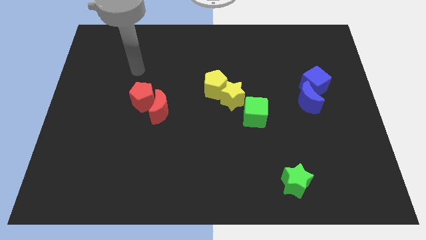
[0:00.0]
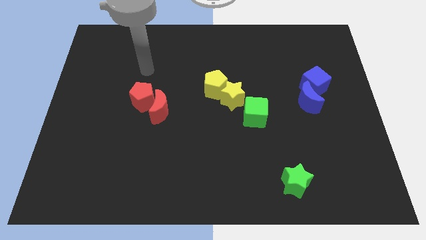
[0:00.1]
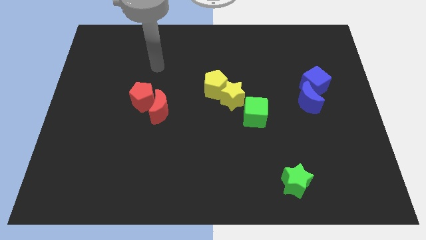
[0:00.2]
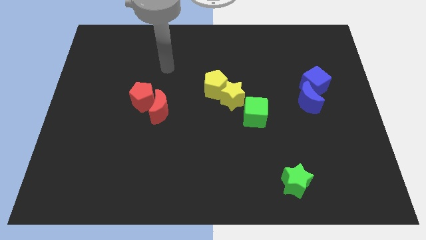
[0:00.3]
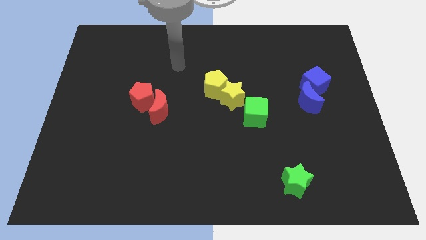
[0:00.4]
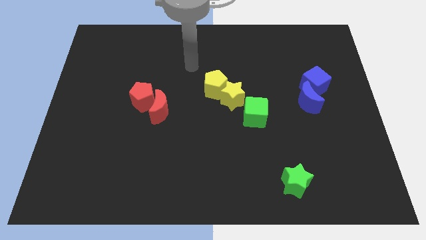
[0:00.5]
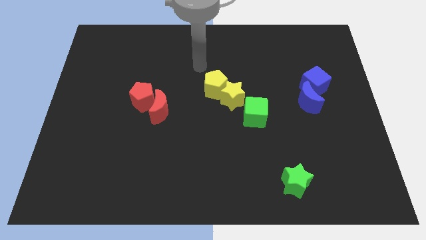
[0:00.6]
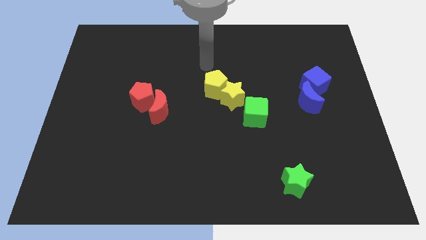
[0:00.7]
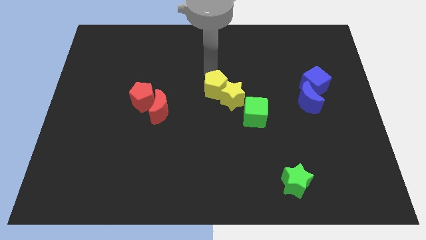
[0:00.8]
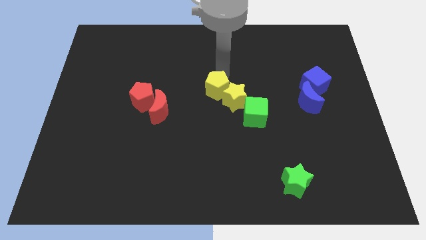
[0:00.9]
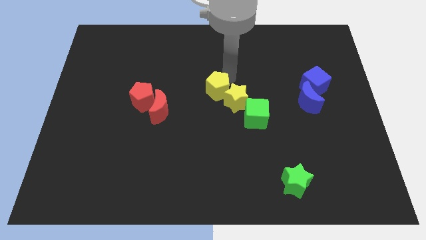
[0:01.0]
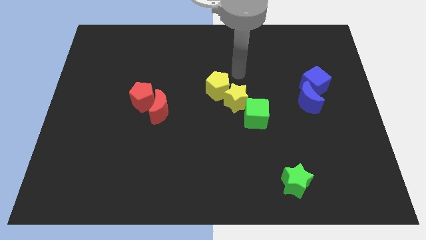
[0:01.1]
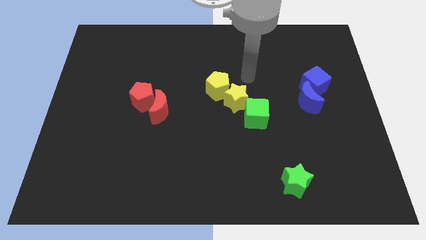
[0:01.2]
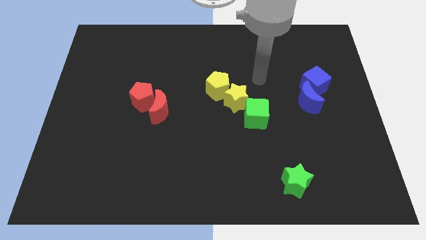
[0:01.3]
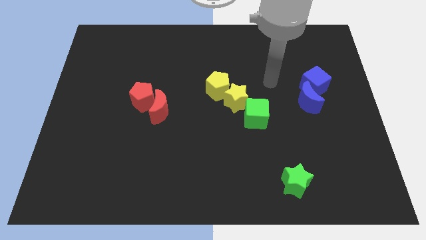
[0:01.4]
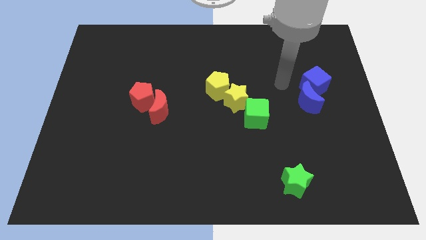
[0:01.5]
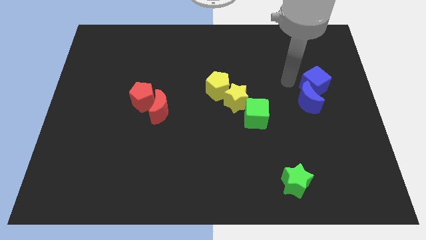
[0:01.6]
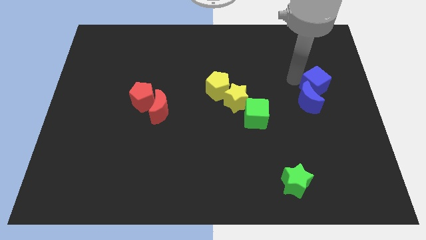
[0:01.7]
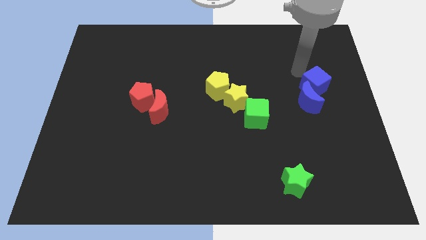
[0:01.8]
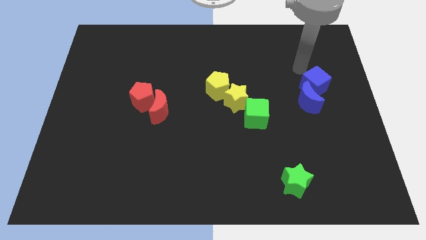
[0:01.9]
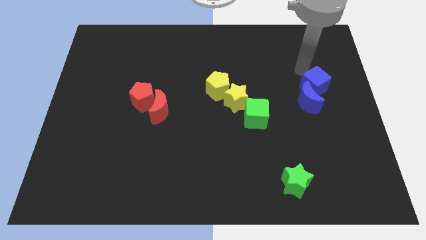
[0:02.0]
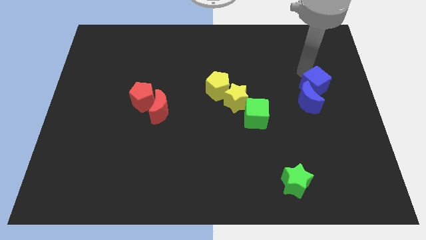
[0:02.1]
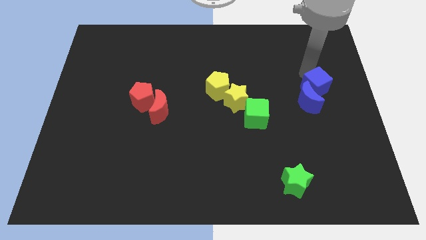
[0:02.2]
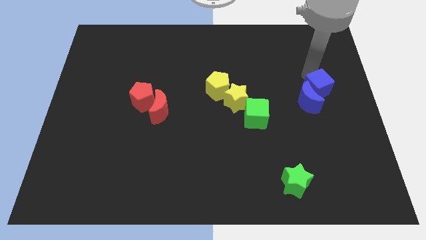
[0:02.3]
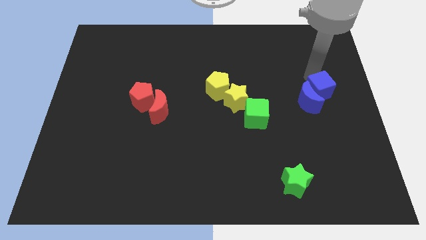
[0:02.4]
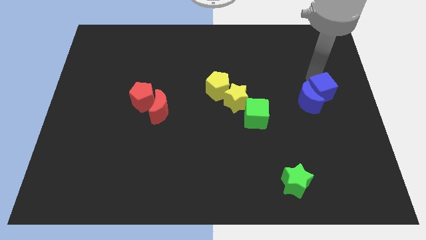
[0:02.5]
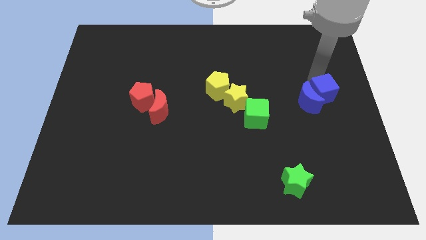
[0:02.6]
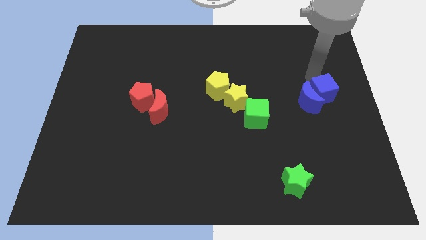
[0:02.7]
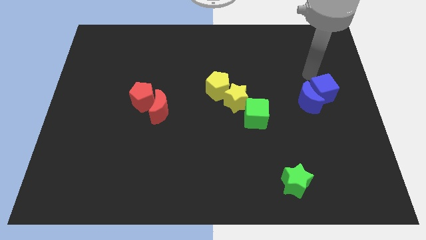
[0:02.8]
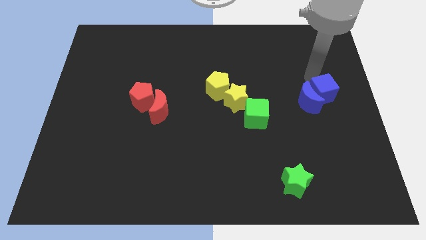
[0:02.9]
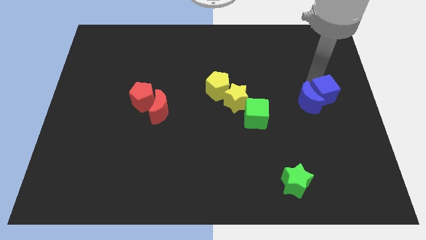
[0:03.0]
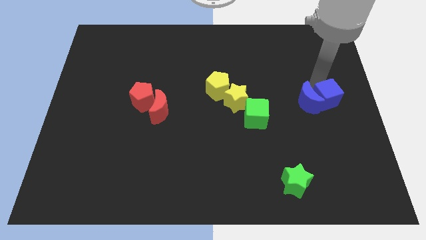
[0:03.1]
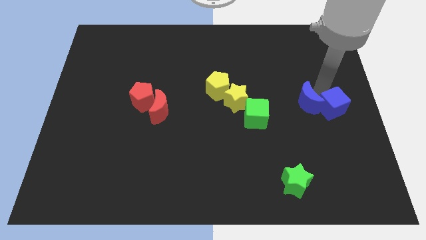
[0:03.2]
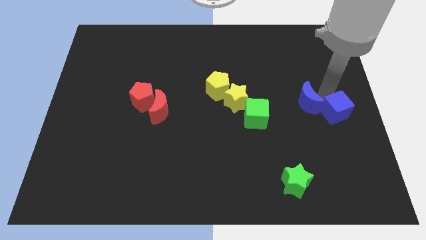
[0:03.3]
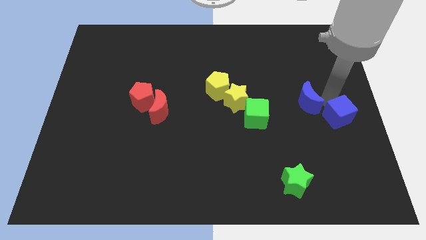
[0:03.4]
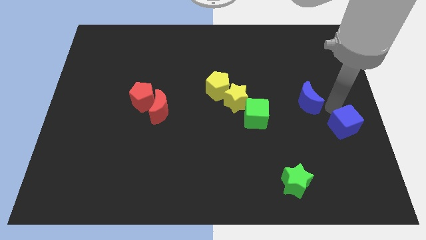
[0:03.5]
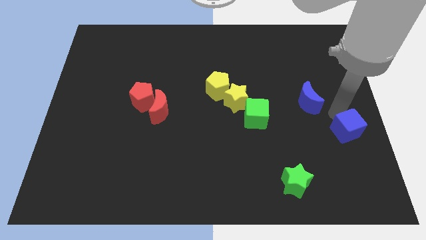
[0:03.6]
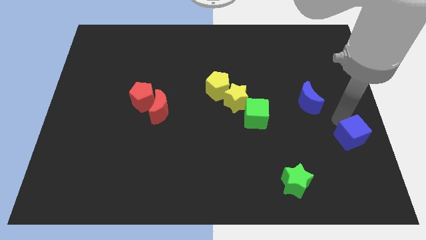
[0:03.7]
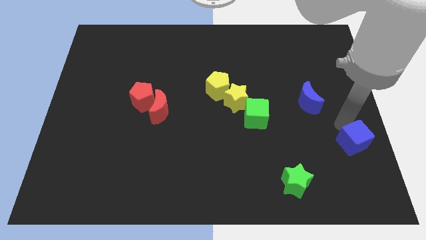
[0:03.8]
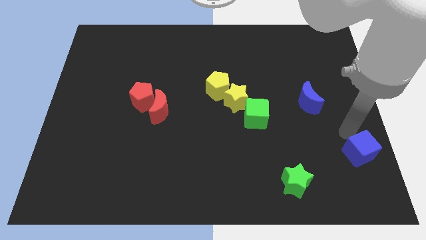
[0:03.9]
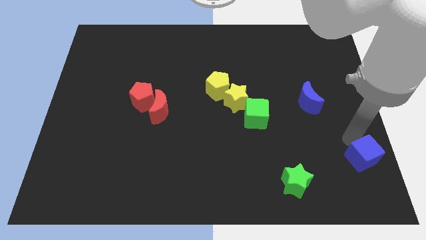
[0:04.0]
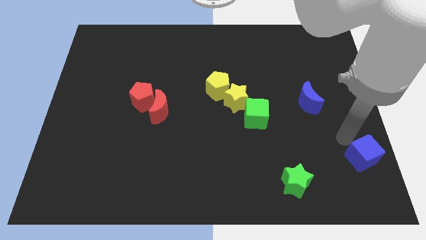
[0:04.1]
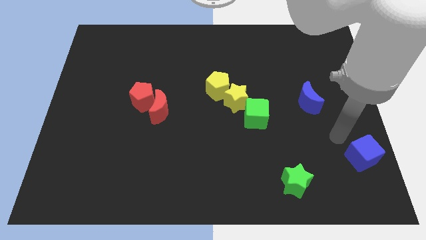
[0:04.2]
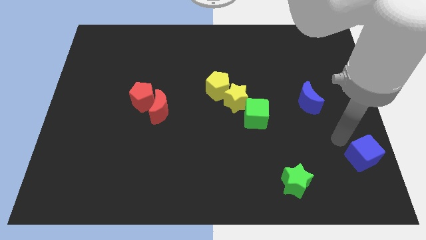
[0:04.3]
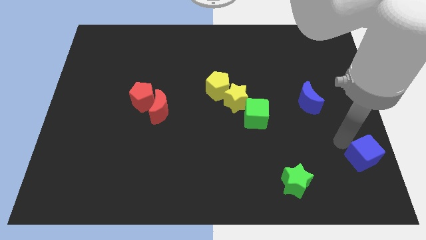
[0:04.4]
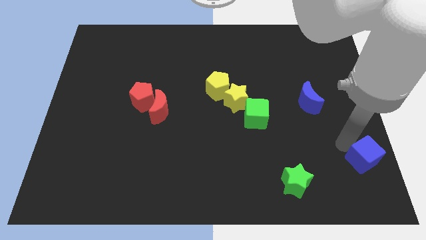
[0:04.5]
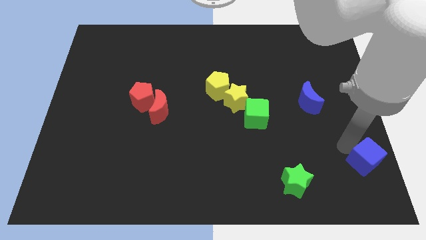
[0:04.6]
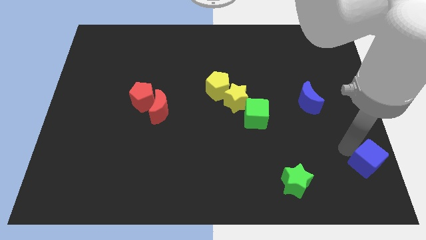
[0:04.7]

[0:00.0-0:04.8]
slide the blue cube to the lower right corner

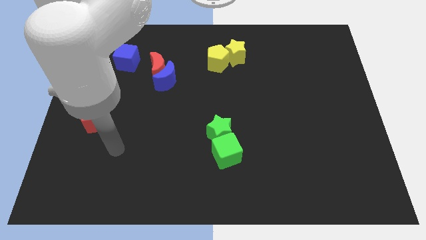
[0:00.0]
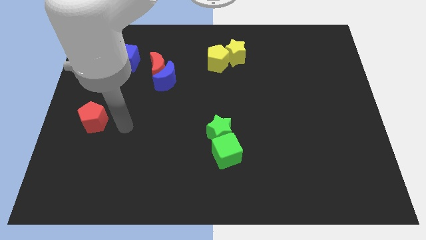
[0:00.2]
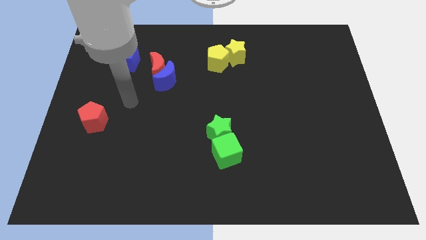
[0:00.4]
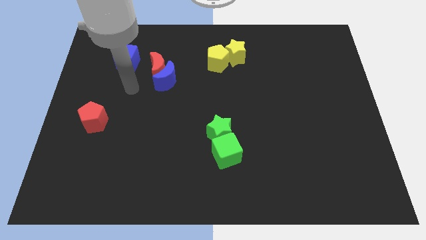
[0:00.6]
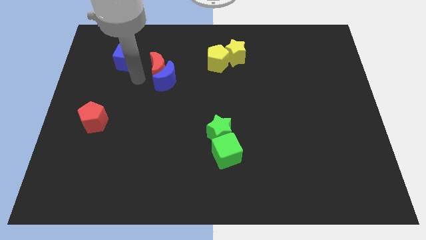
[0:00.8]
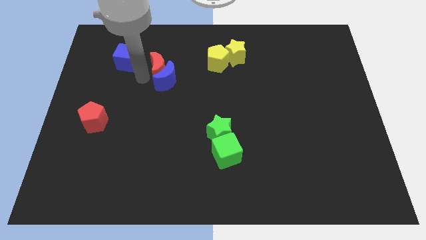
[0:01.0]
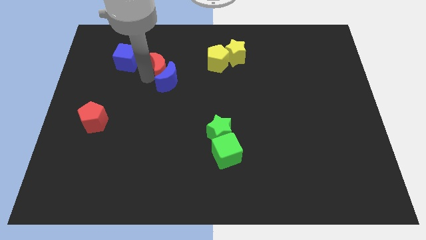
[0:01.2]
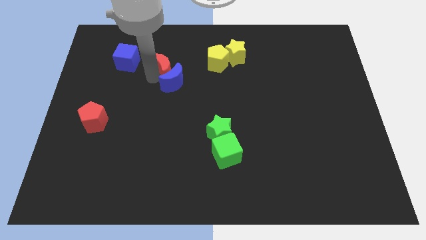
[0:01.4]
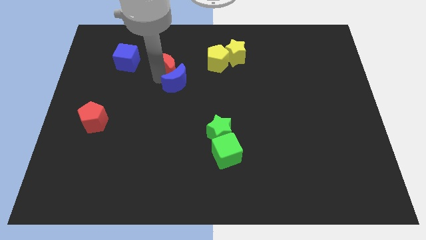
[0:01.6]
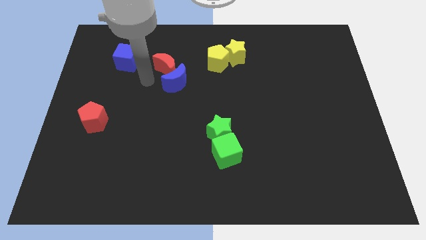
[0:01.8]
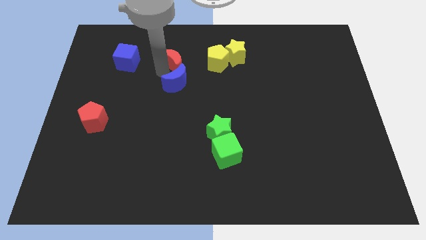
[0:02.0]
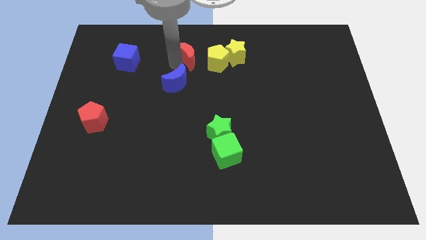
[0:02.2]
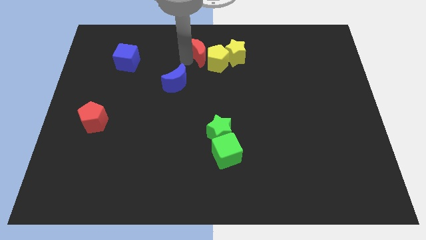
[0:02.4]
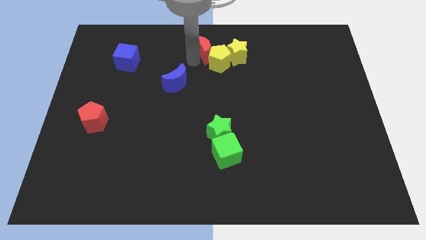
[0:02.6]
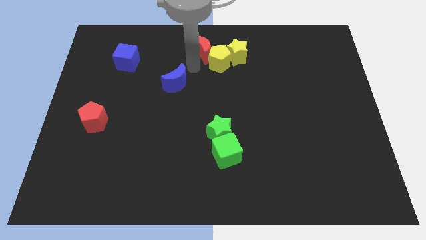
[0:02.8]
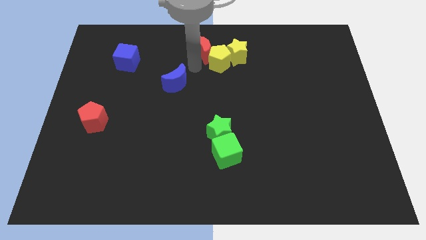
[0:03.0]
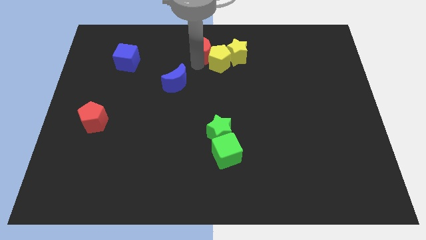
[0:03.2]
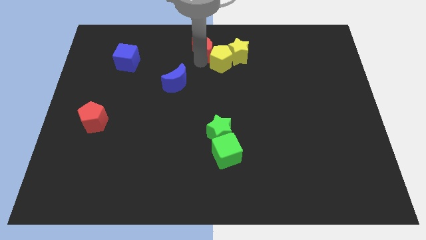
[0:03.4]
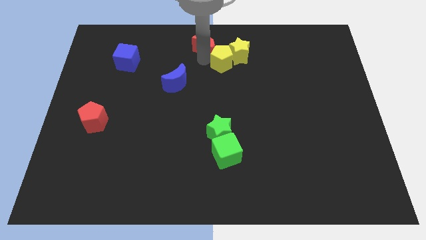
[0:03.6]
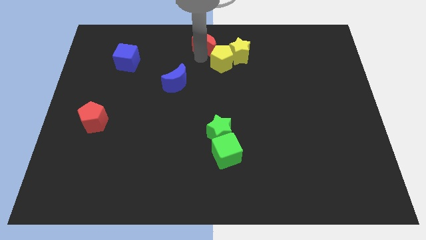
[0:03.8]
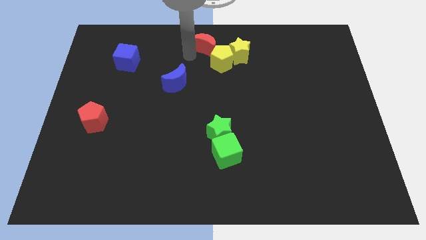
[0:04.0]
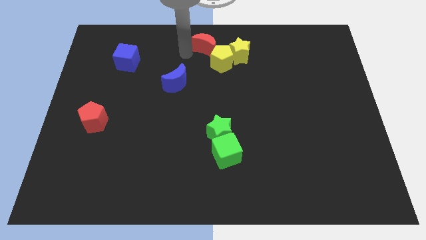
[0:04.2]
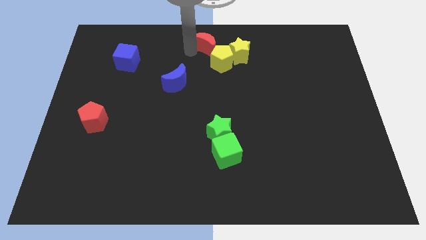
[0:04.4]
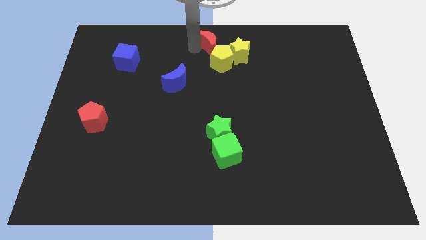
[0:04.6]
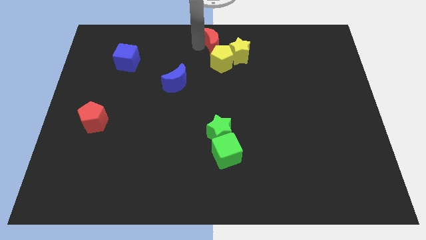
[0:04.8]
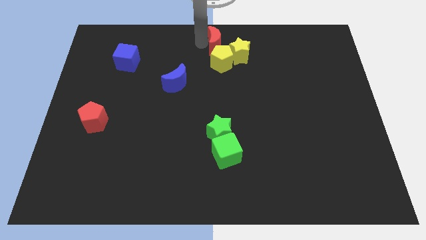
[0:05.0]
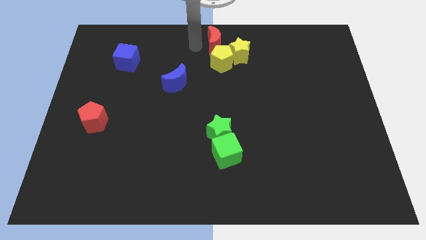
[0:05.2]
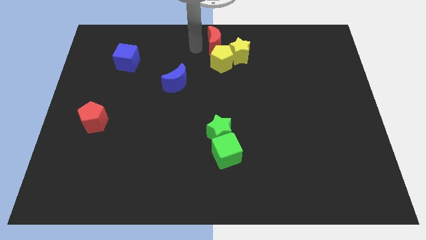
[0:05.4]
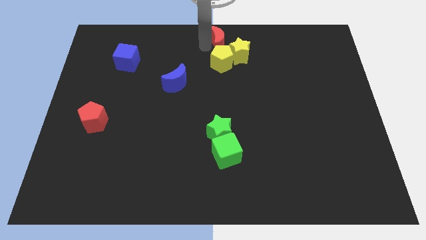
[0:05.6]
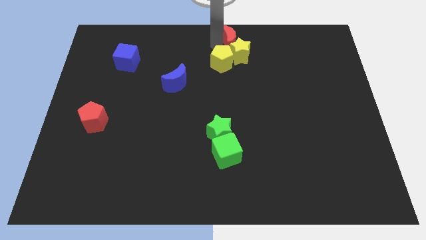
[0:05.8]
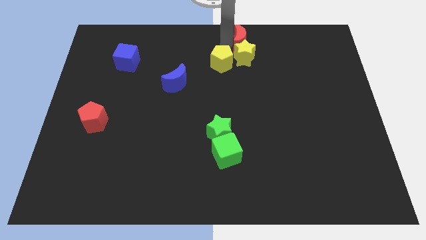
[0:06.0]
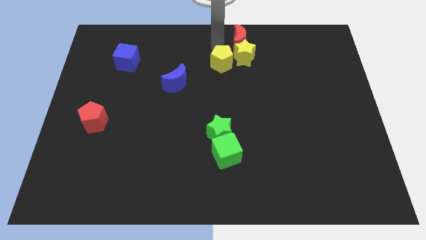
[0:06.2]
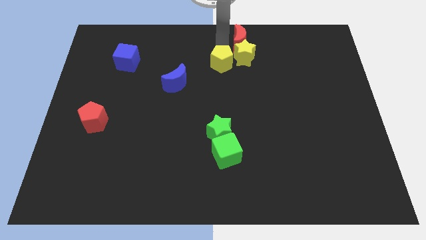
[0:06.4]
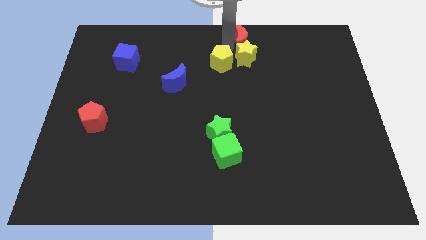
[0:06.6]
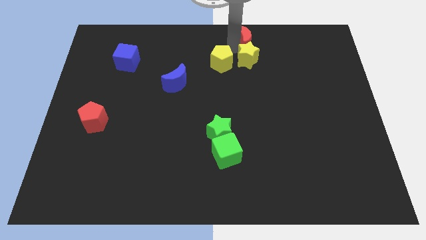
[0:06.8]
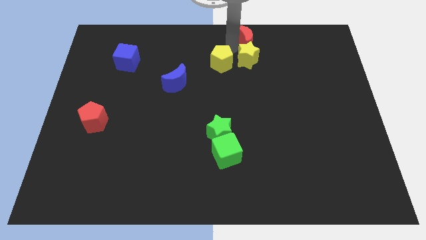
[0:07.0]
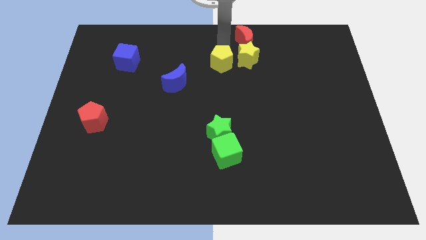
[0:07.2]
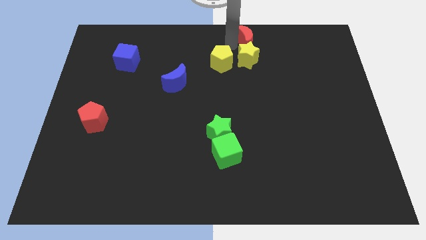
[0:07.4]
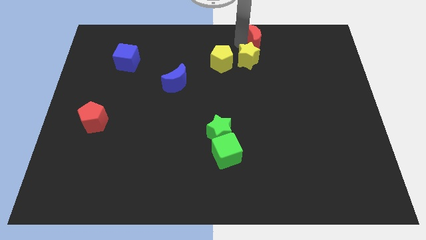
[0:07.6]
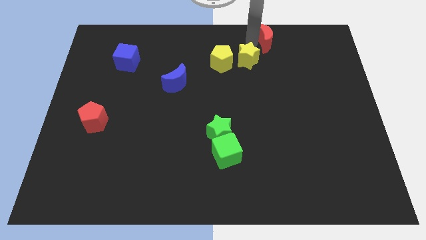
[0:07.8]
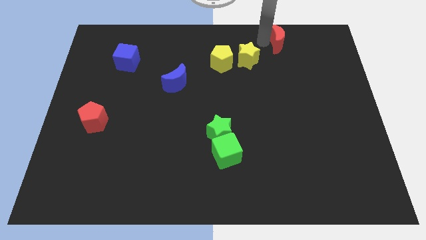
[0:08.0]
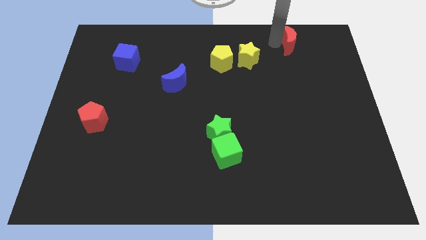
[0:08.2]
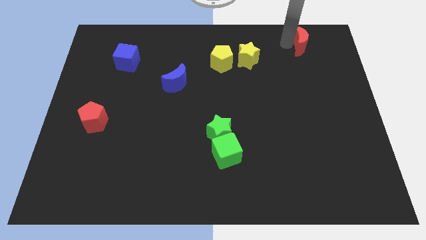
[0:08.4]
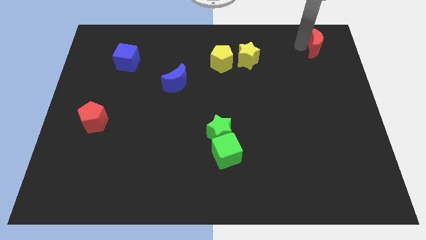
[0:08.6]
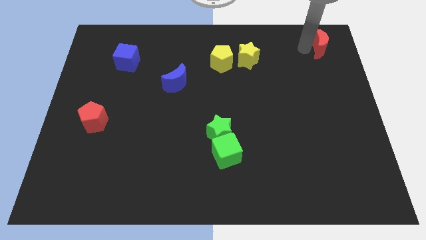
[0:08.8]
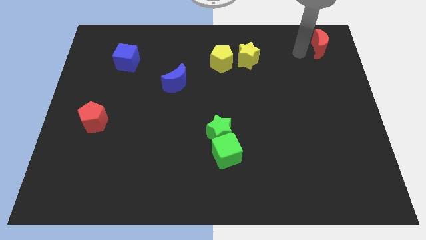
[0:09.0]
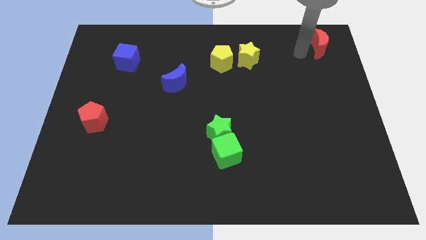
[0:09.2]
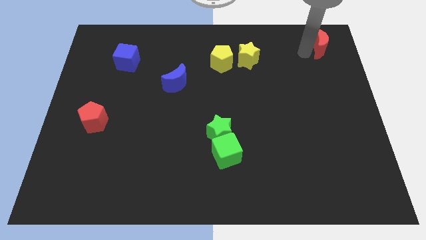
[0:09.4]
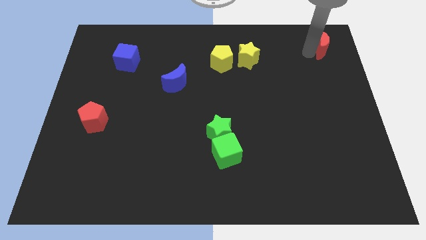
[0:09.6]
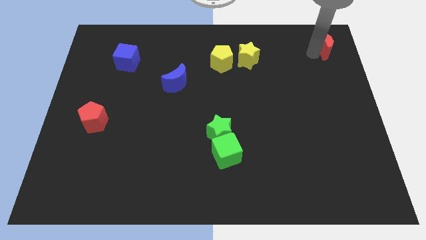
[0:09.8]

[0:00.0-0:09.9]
move the red moon to the top right
